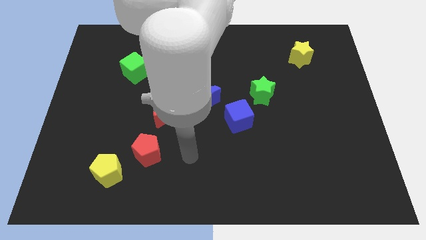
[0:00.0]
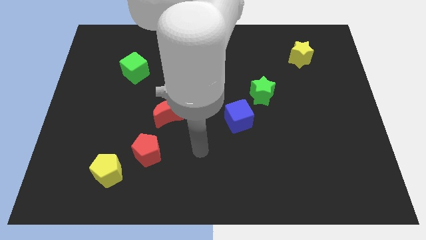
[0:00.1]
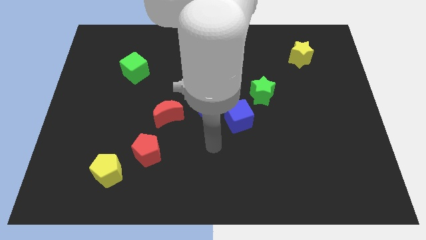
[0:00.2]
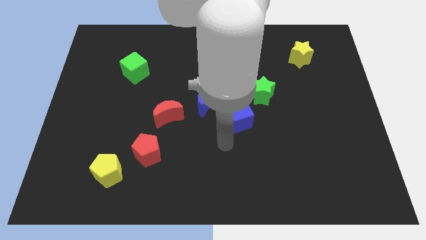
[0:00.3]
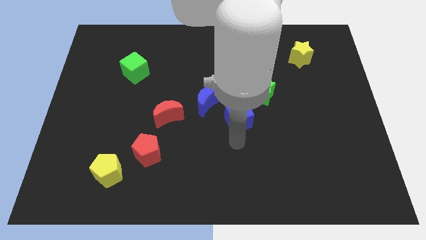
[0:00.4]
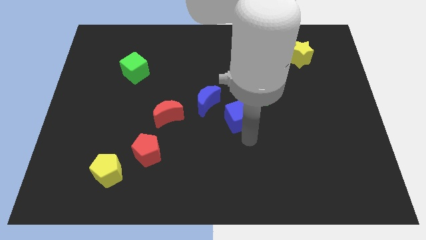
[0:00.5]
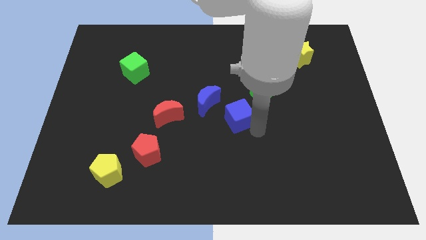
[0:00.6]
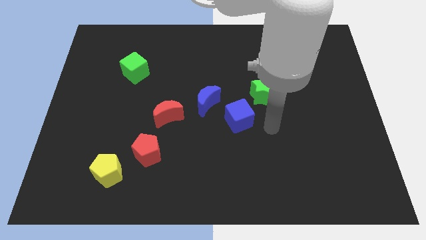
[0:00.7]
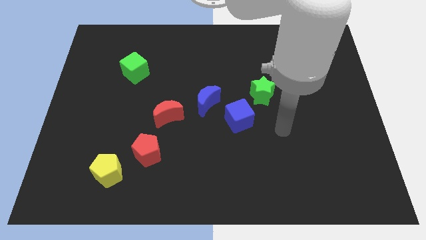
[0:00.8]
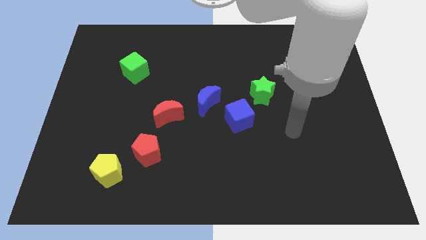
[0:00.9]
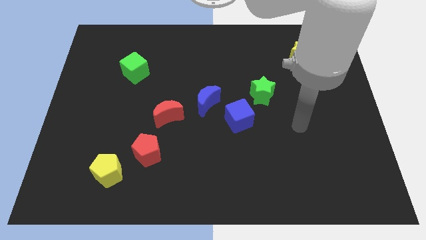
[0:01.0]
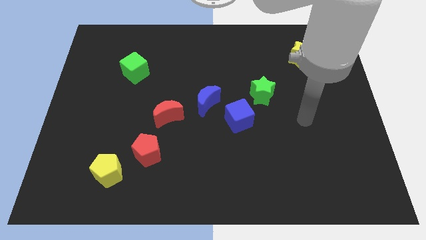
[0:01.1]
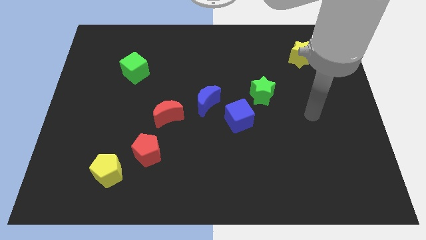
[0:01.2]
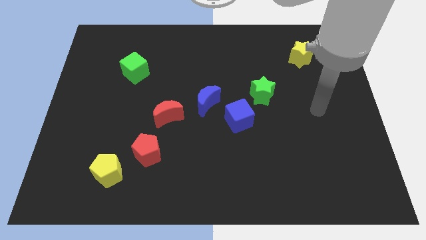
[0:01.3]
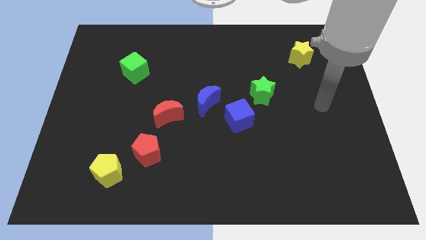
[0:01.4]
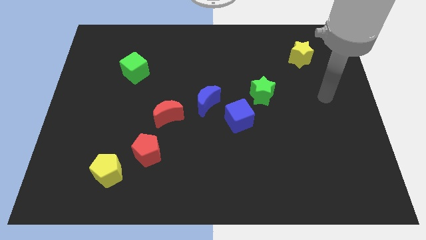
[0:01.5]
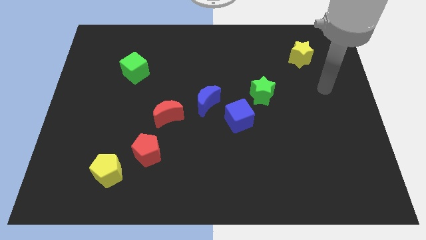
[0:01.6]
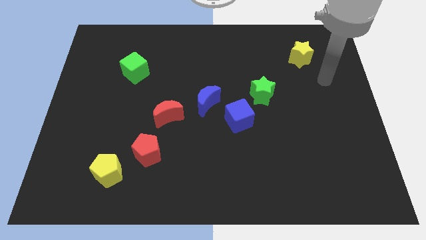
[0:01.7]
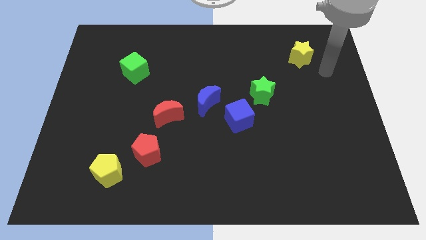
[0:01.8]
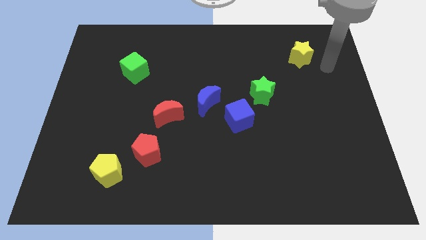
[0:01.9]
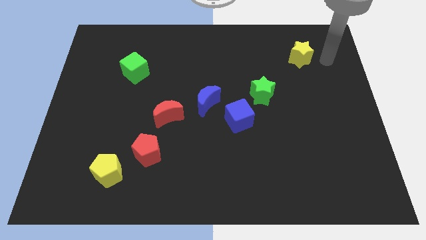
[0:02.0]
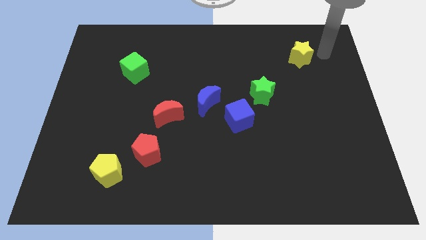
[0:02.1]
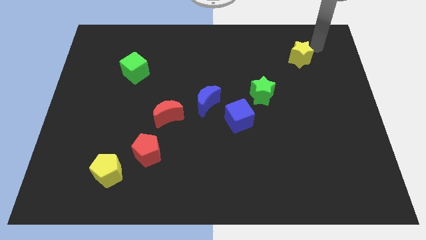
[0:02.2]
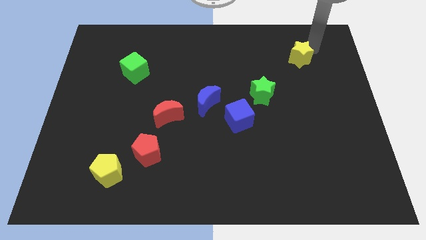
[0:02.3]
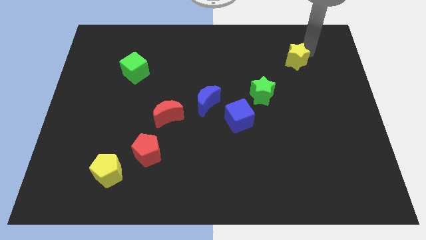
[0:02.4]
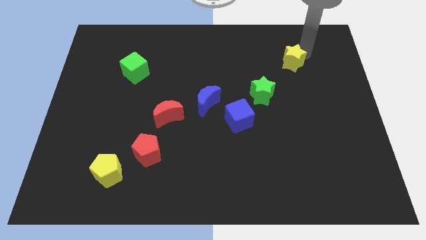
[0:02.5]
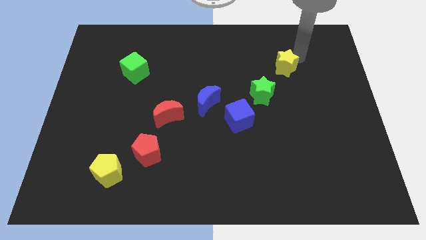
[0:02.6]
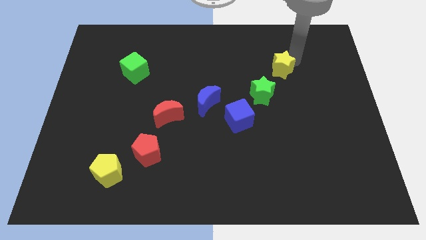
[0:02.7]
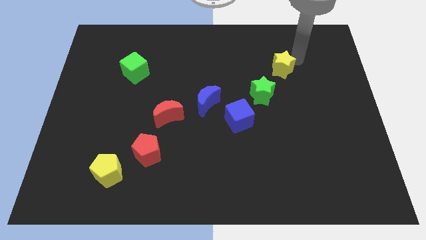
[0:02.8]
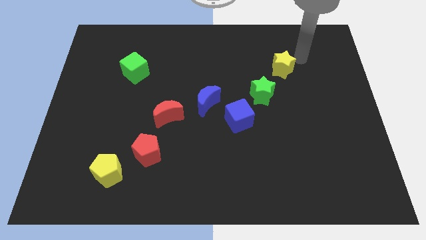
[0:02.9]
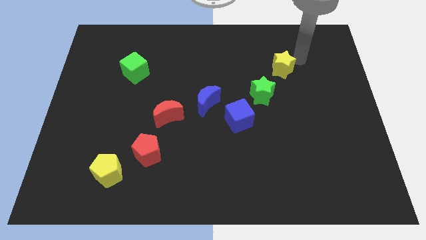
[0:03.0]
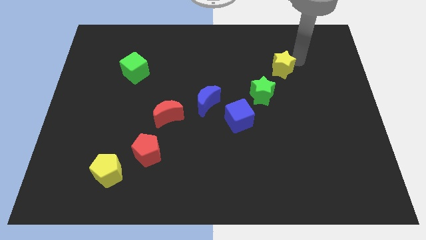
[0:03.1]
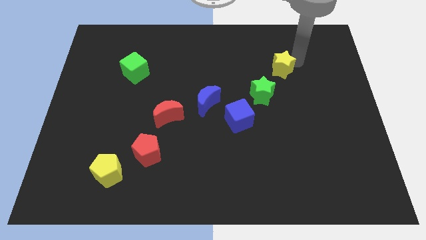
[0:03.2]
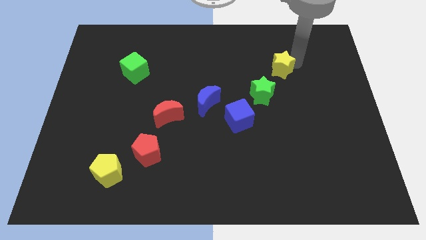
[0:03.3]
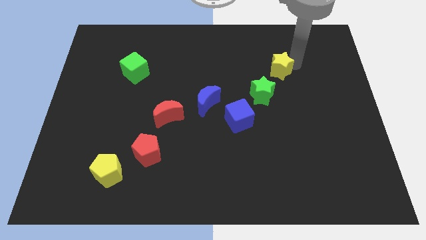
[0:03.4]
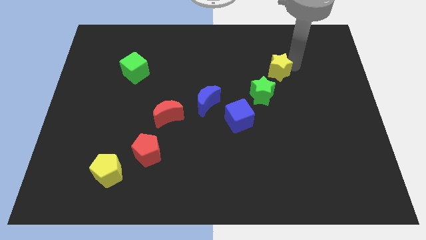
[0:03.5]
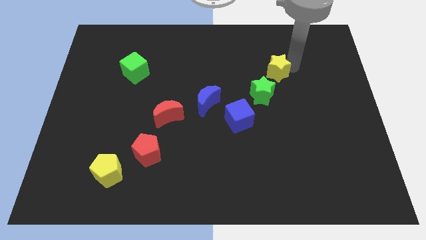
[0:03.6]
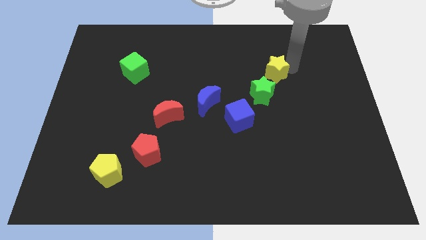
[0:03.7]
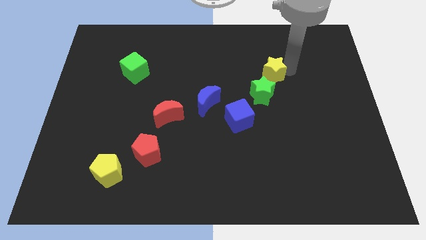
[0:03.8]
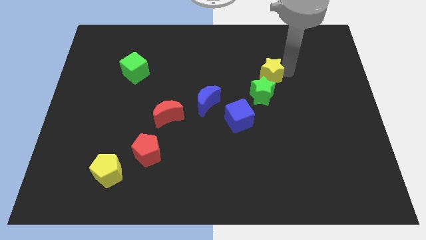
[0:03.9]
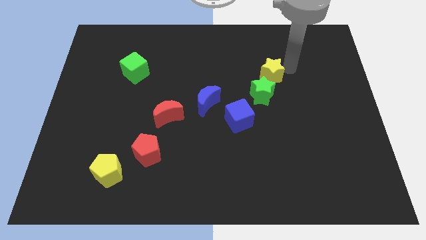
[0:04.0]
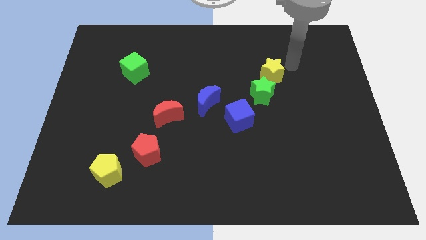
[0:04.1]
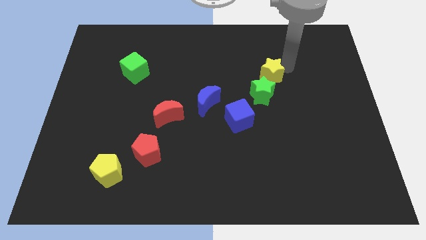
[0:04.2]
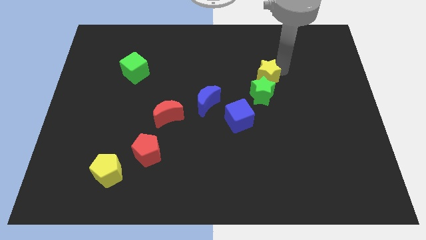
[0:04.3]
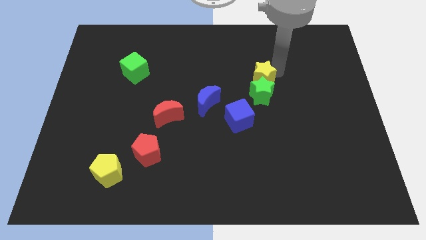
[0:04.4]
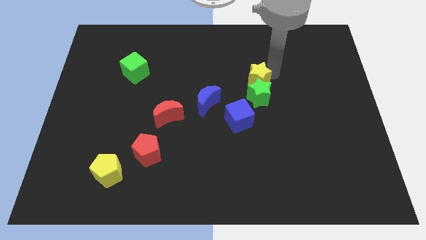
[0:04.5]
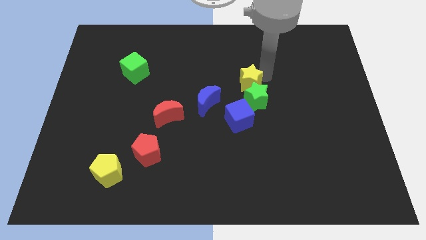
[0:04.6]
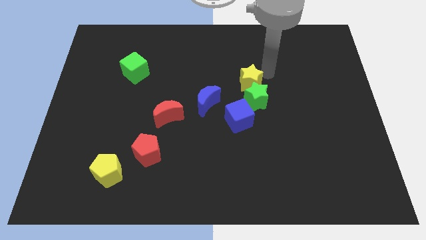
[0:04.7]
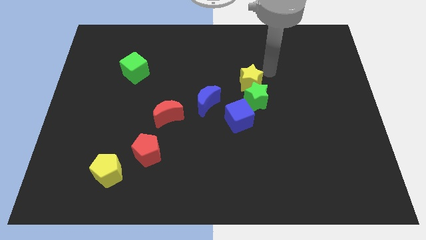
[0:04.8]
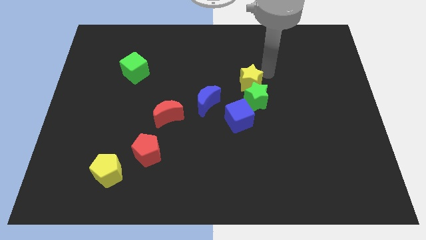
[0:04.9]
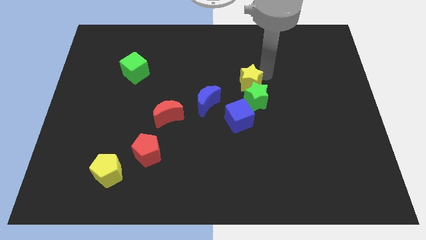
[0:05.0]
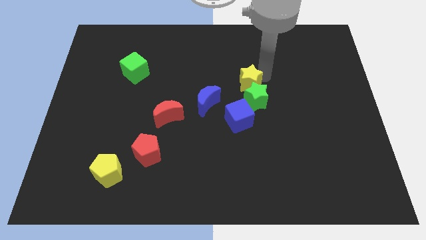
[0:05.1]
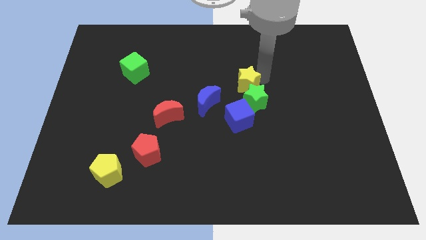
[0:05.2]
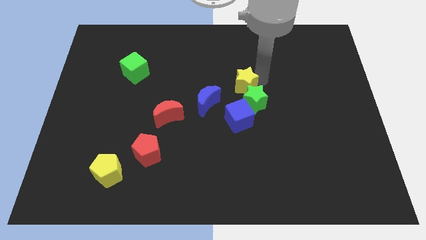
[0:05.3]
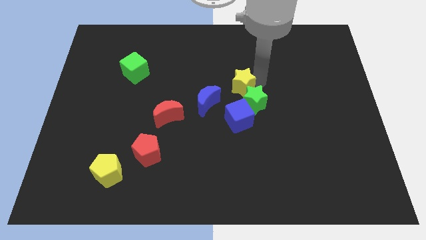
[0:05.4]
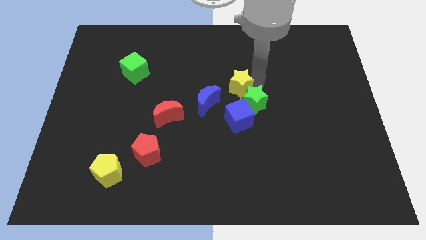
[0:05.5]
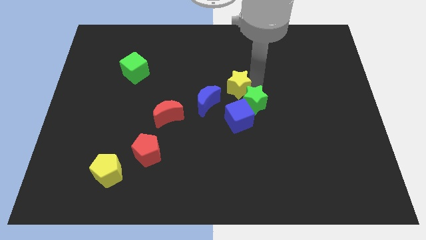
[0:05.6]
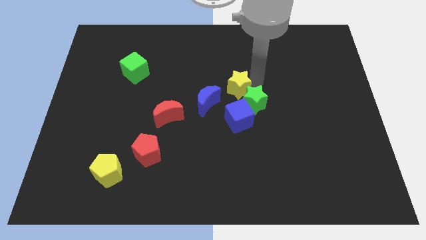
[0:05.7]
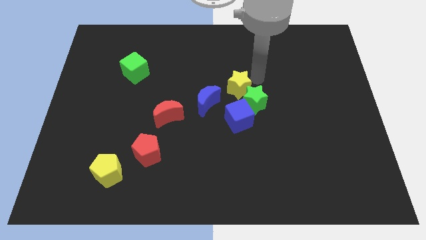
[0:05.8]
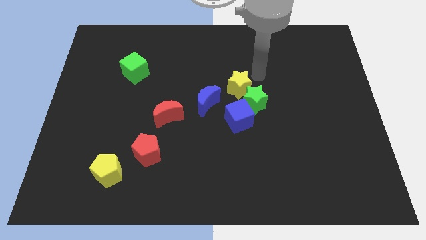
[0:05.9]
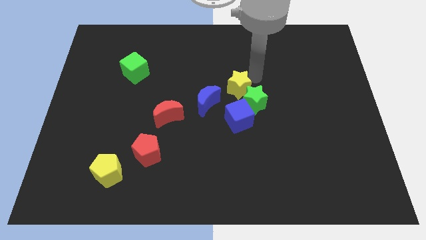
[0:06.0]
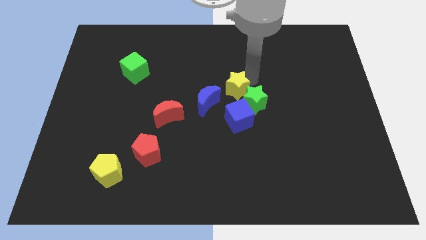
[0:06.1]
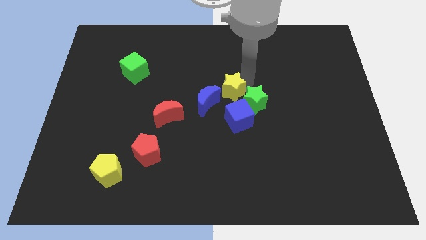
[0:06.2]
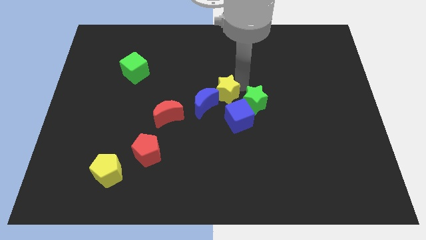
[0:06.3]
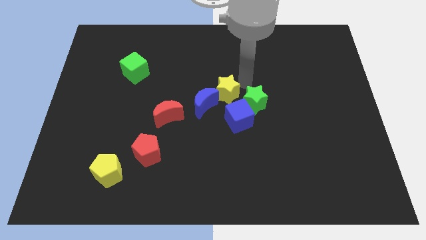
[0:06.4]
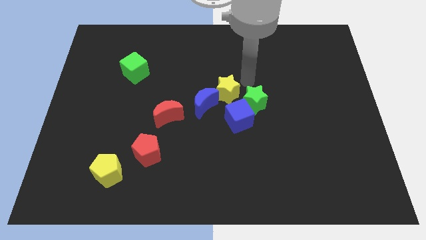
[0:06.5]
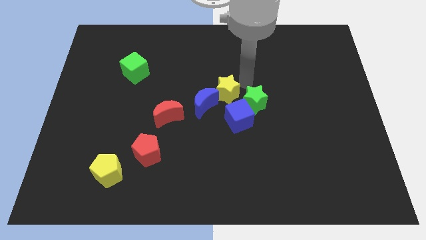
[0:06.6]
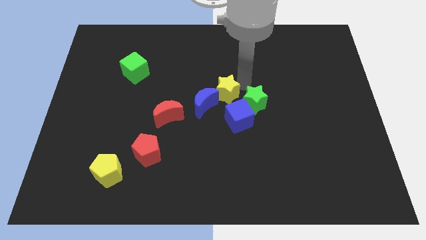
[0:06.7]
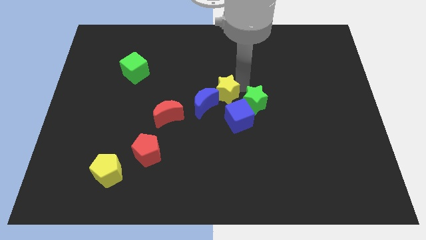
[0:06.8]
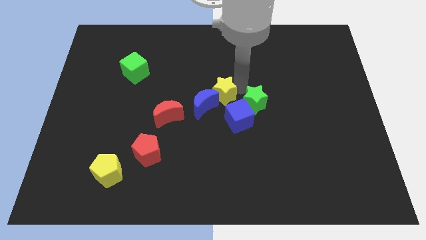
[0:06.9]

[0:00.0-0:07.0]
move the yellow star to the blue moon

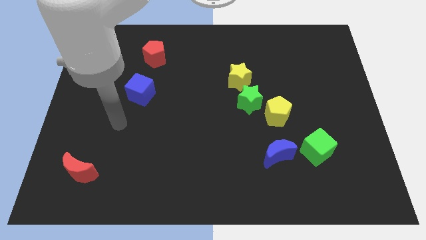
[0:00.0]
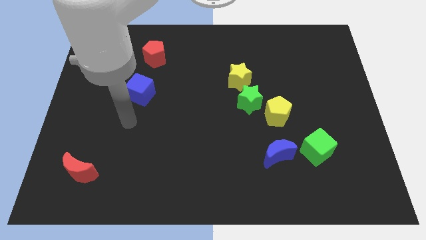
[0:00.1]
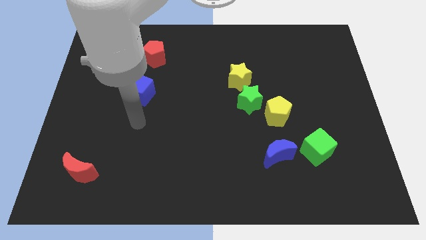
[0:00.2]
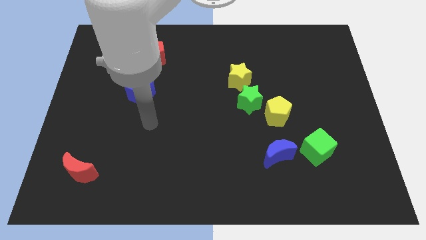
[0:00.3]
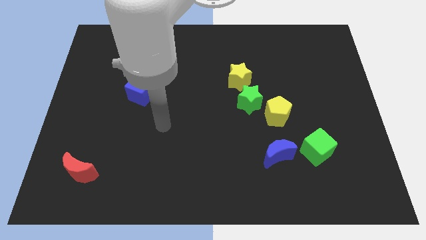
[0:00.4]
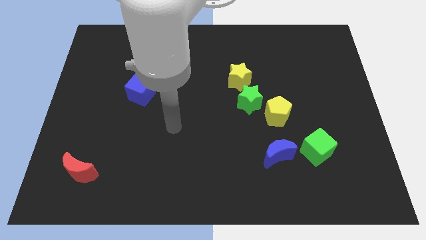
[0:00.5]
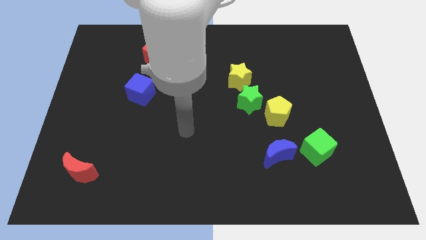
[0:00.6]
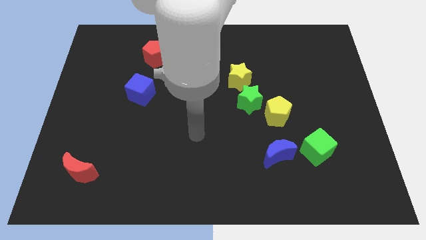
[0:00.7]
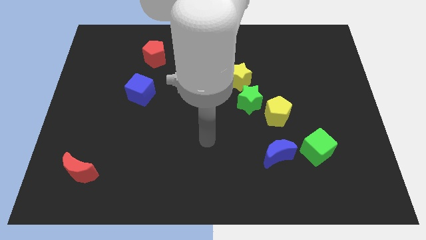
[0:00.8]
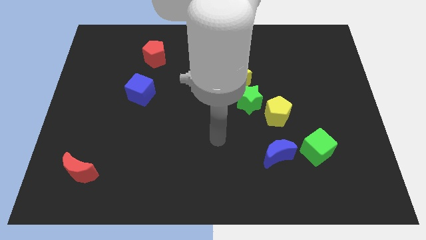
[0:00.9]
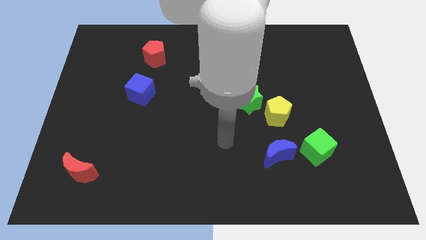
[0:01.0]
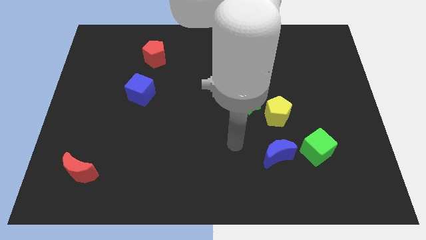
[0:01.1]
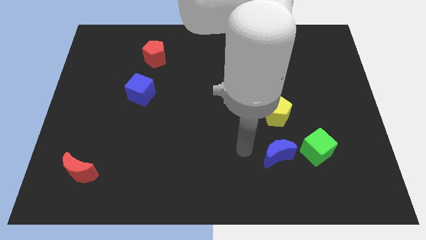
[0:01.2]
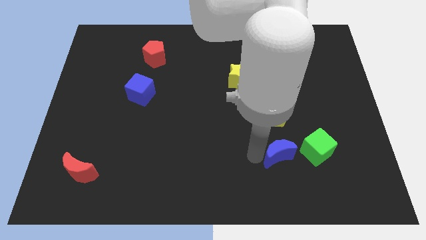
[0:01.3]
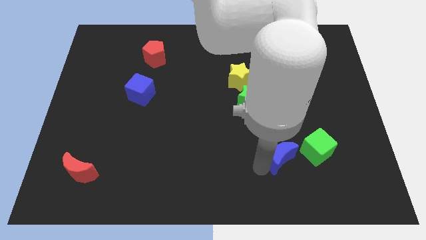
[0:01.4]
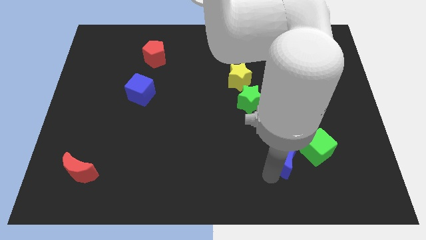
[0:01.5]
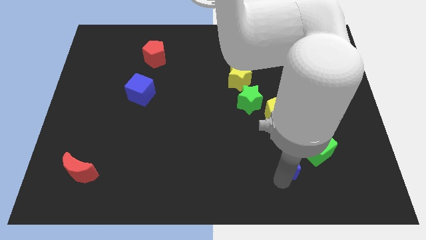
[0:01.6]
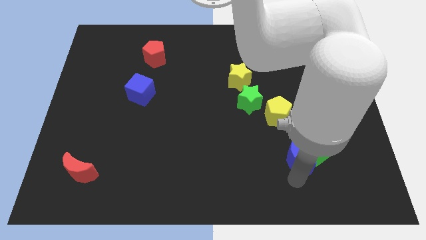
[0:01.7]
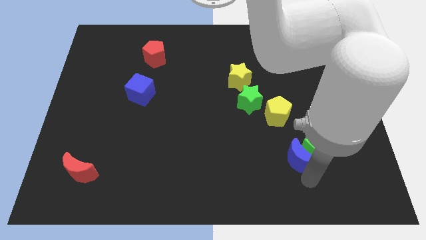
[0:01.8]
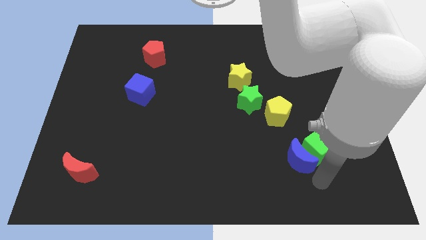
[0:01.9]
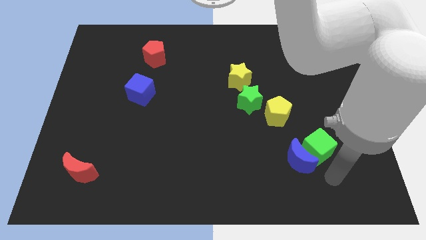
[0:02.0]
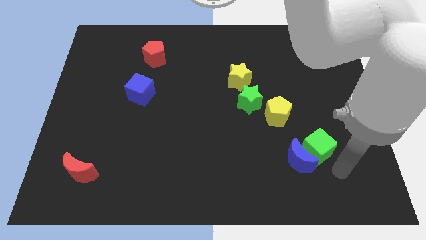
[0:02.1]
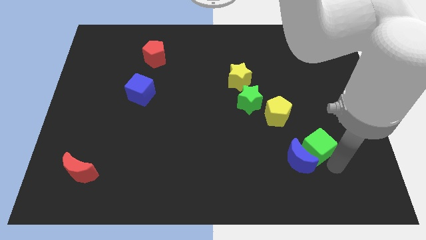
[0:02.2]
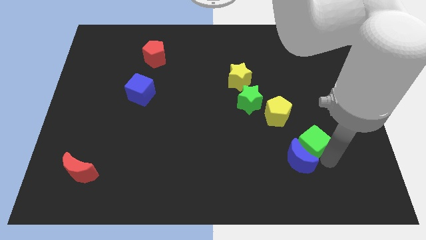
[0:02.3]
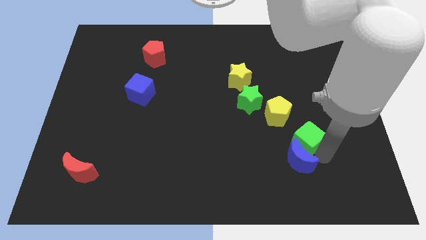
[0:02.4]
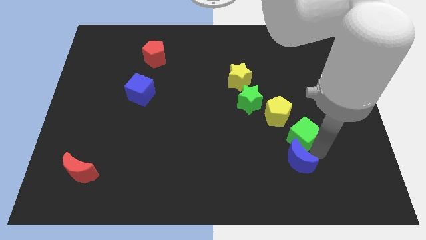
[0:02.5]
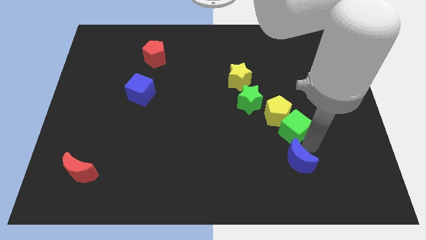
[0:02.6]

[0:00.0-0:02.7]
slide the green cube close to the yellow pentagon
